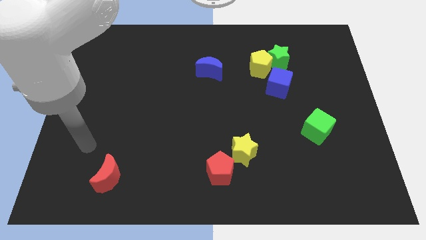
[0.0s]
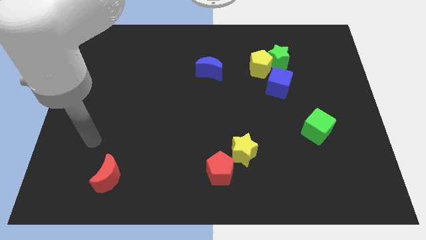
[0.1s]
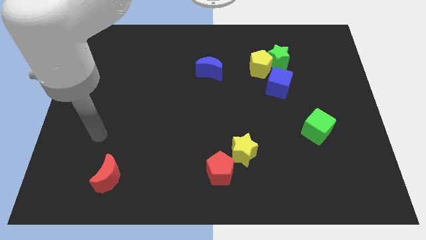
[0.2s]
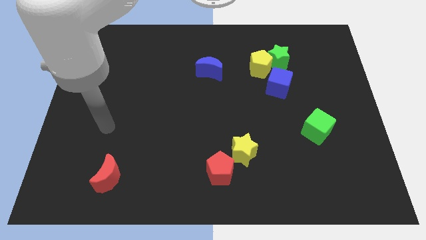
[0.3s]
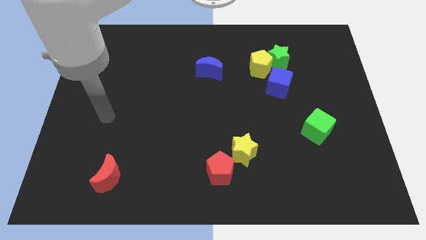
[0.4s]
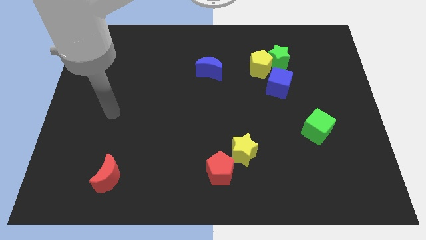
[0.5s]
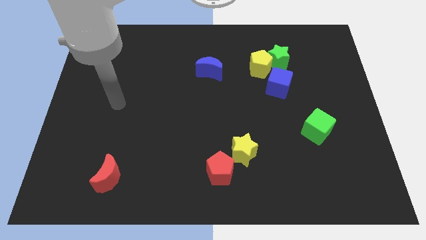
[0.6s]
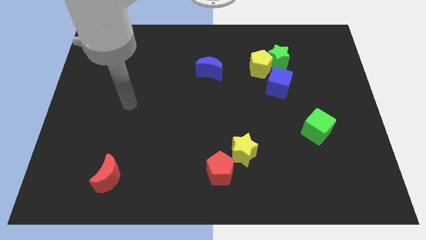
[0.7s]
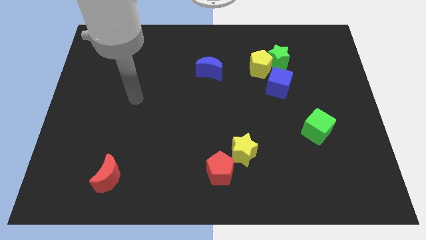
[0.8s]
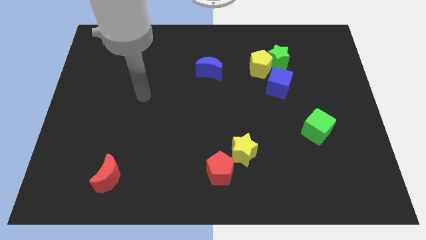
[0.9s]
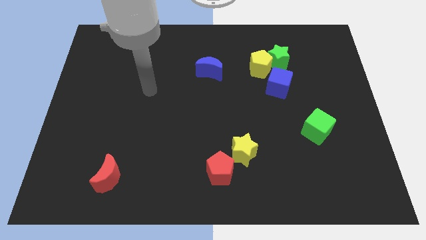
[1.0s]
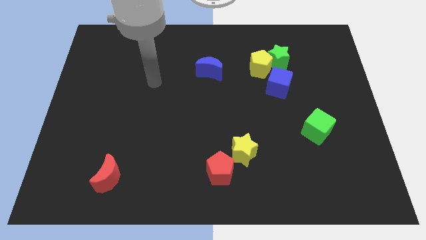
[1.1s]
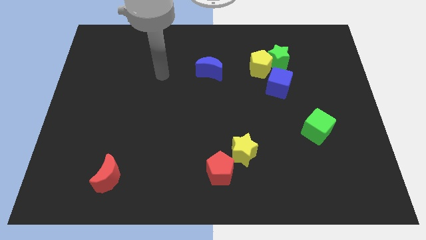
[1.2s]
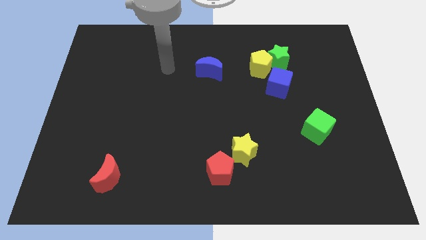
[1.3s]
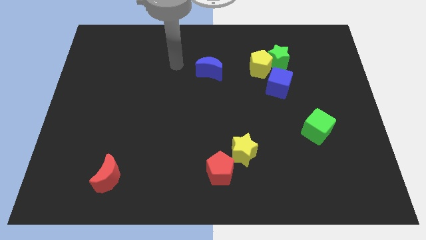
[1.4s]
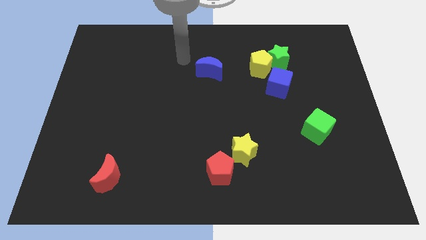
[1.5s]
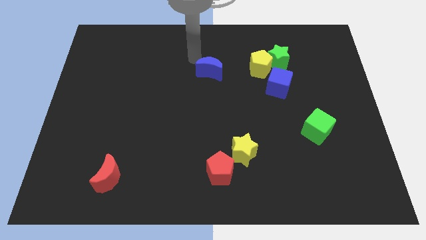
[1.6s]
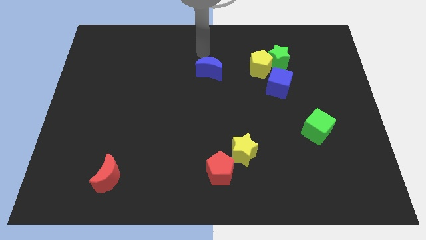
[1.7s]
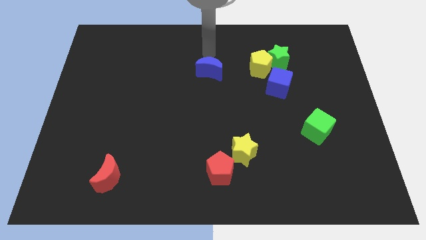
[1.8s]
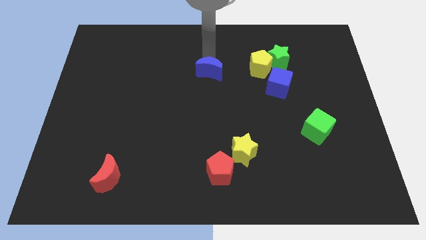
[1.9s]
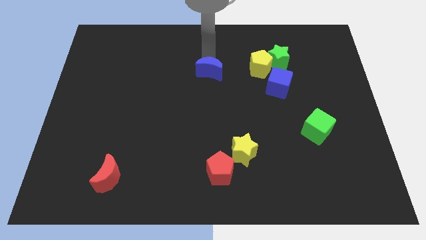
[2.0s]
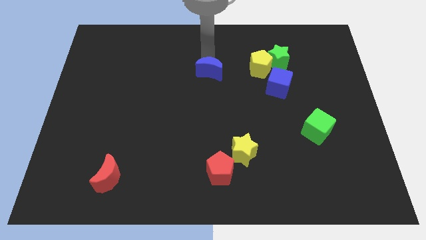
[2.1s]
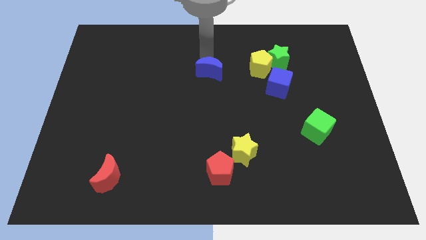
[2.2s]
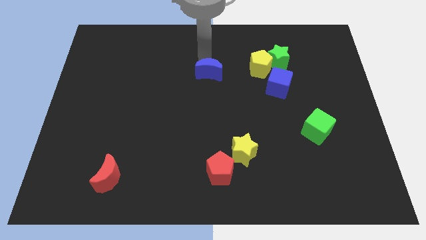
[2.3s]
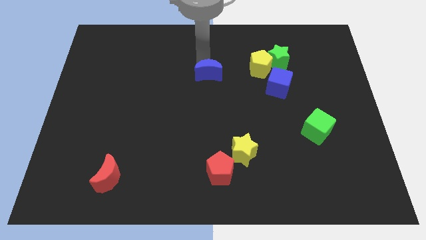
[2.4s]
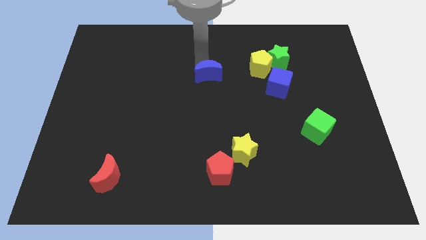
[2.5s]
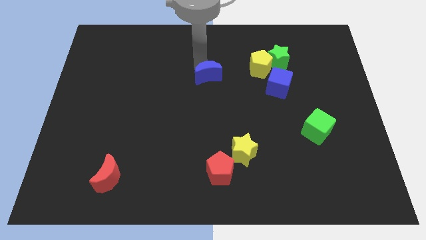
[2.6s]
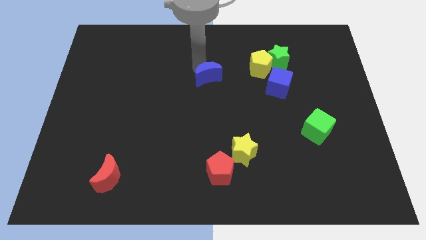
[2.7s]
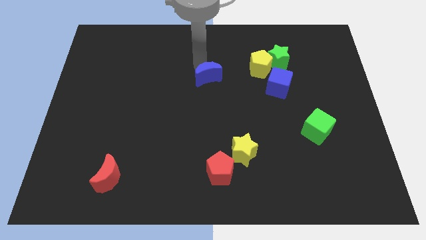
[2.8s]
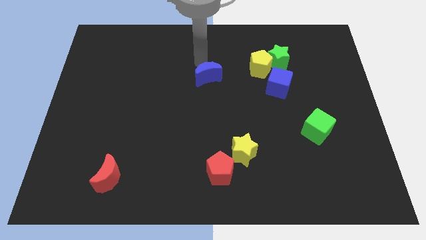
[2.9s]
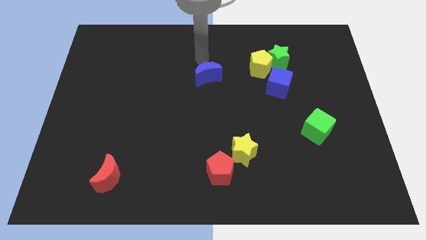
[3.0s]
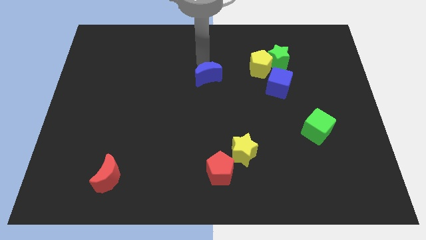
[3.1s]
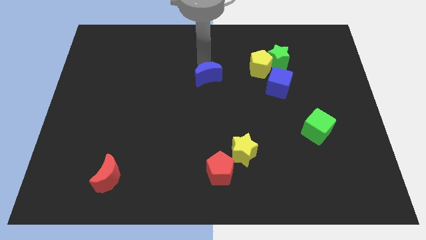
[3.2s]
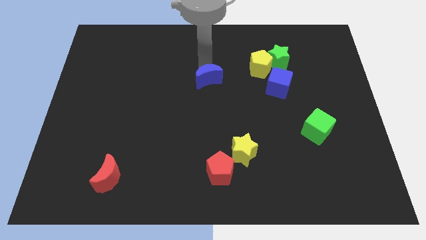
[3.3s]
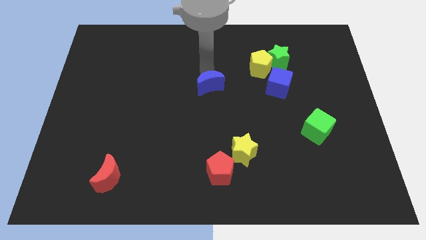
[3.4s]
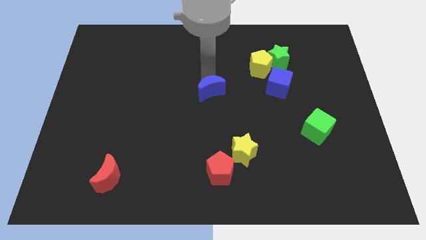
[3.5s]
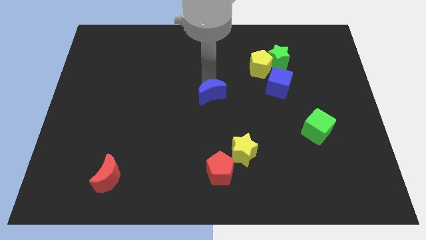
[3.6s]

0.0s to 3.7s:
slide the blue moon downwards slightly

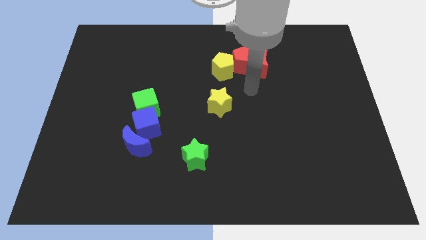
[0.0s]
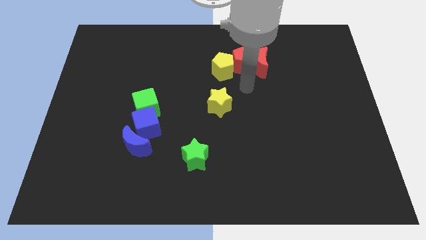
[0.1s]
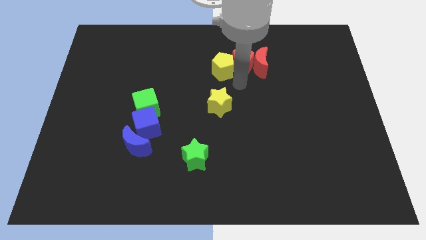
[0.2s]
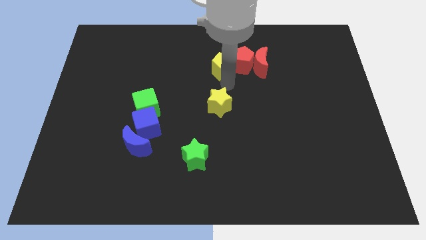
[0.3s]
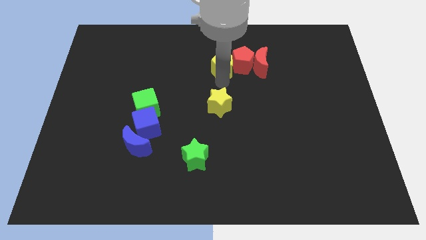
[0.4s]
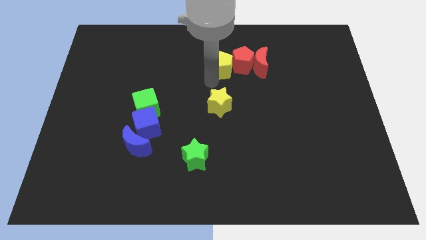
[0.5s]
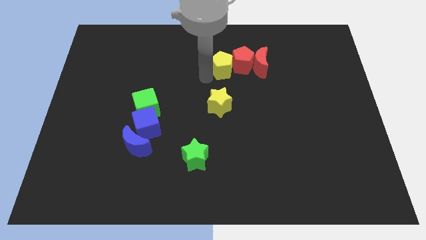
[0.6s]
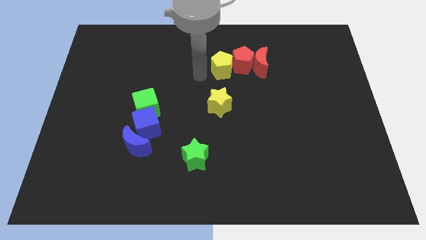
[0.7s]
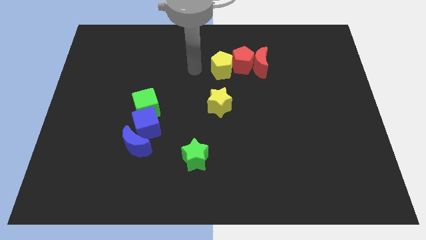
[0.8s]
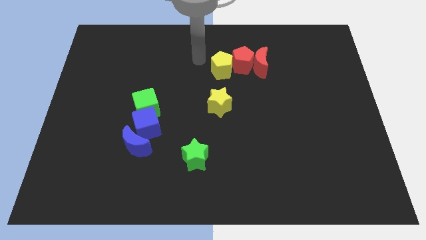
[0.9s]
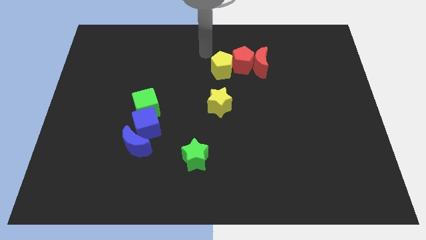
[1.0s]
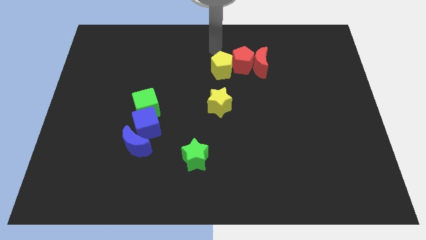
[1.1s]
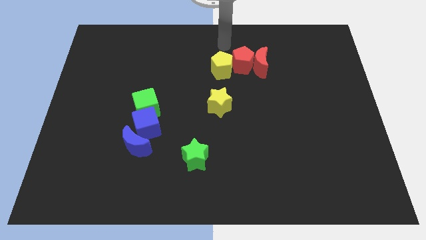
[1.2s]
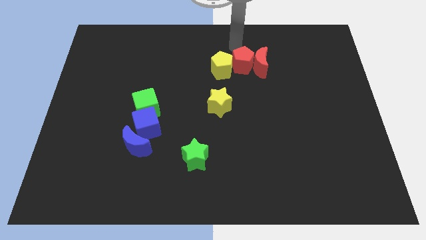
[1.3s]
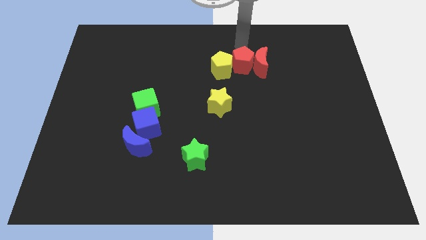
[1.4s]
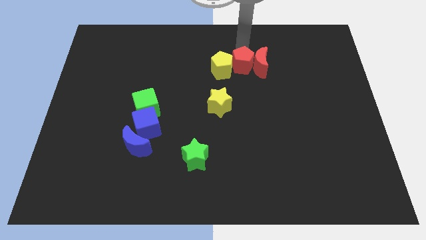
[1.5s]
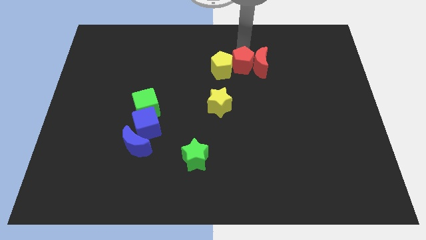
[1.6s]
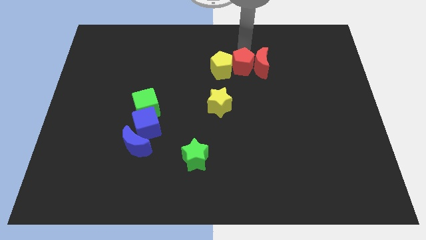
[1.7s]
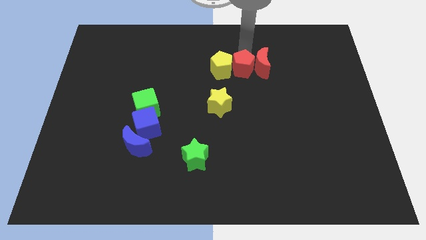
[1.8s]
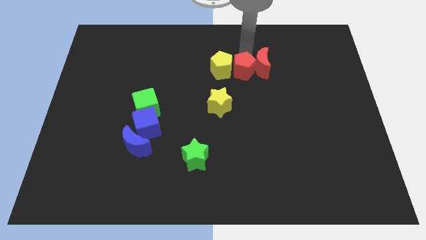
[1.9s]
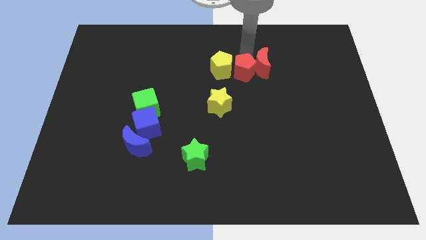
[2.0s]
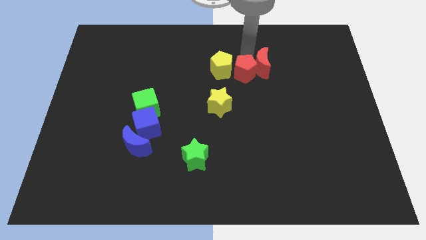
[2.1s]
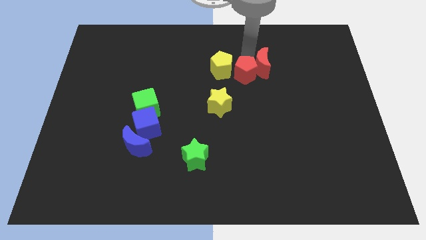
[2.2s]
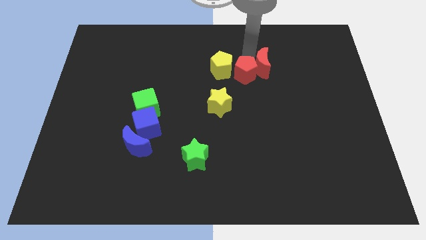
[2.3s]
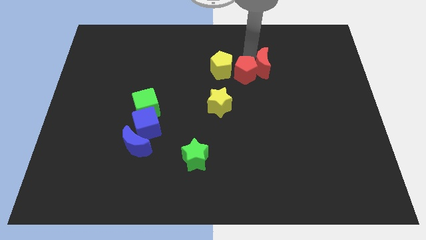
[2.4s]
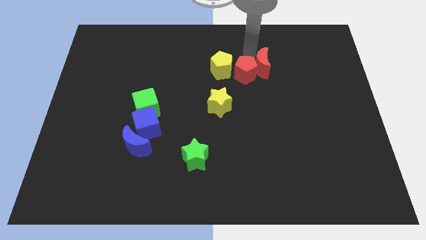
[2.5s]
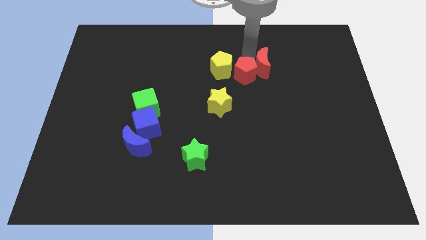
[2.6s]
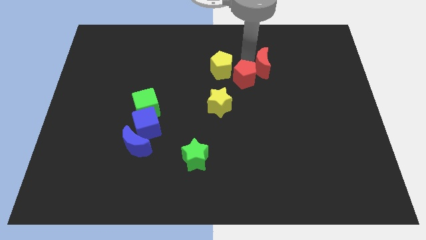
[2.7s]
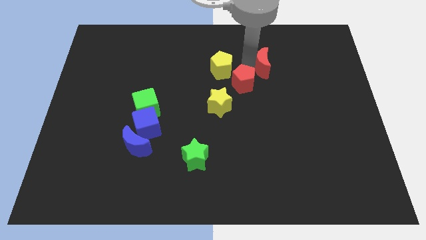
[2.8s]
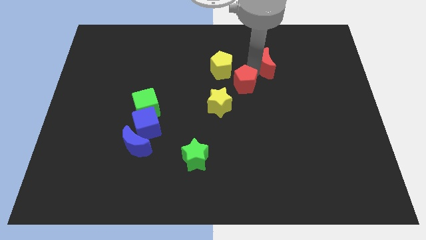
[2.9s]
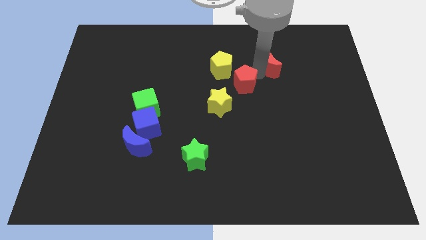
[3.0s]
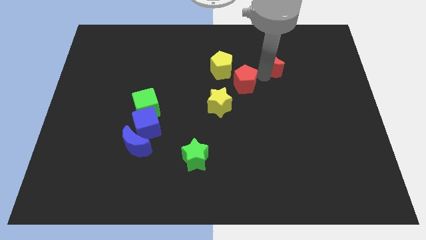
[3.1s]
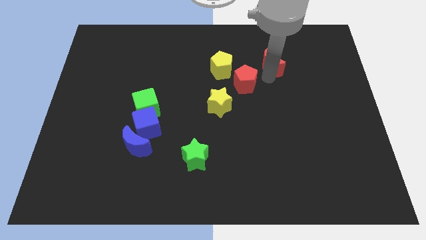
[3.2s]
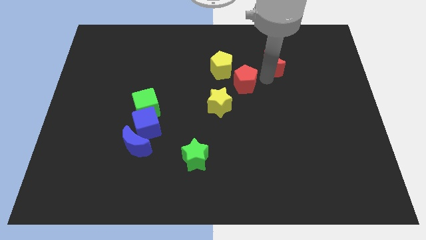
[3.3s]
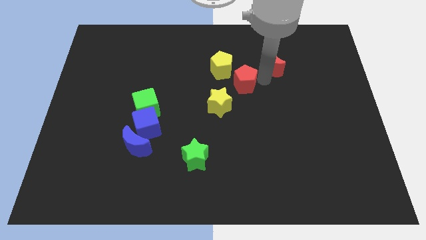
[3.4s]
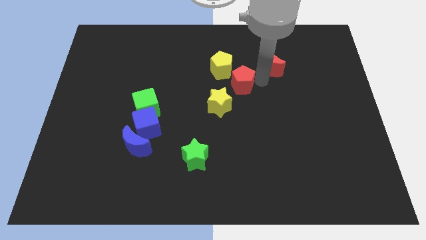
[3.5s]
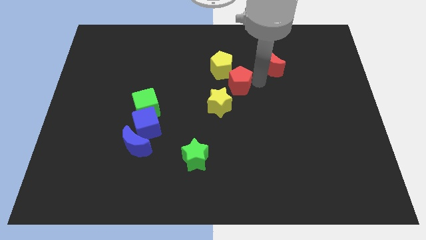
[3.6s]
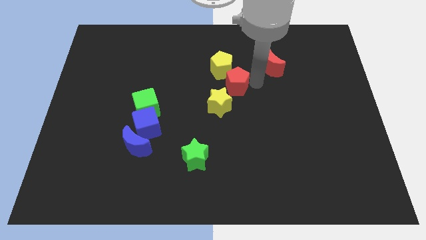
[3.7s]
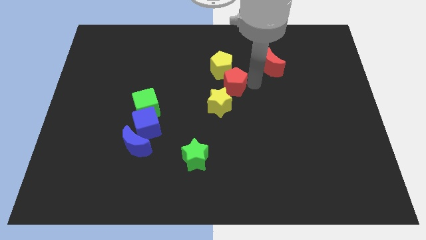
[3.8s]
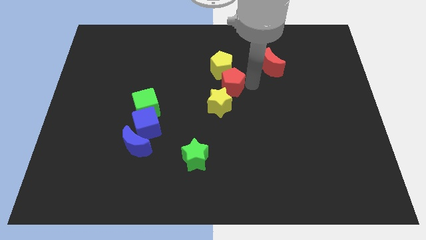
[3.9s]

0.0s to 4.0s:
slightly slide the red pentagon downwards and to the left

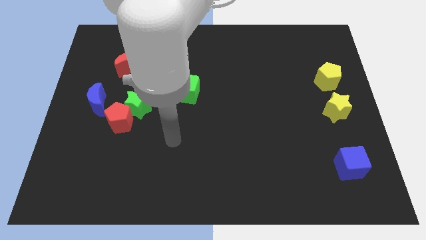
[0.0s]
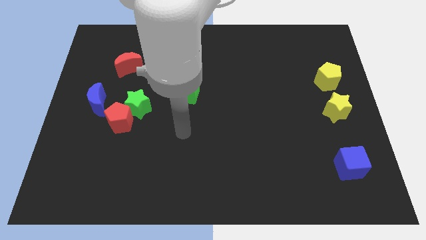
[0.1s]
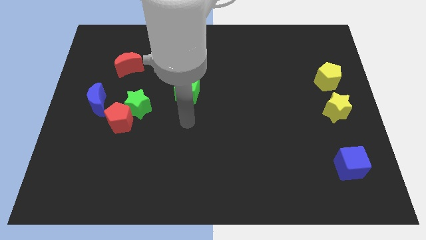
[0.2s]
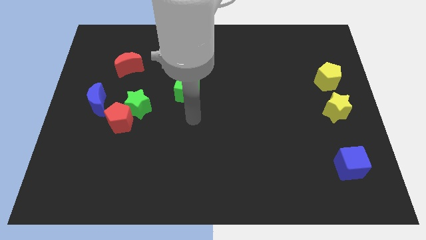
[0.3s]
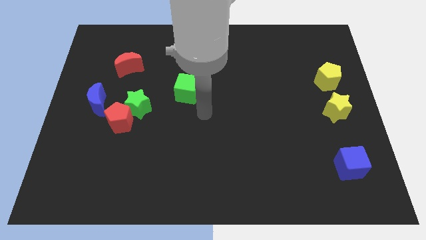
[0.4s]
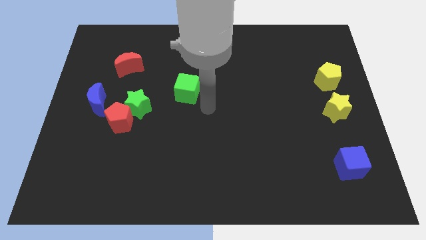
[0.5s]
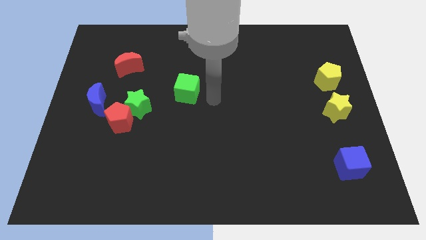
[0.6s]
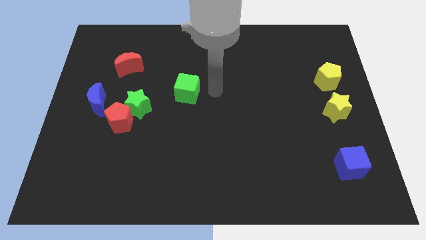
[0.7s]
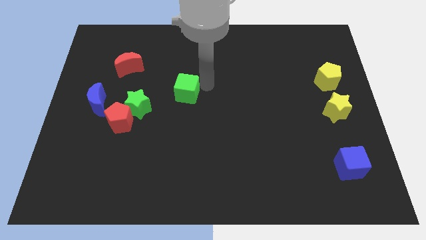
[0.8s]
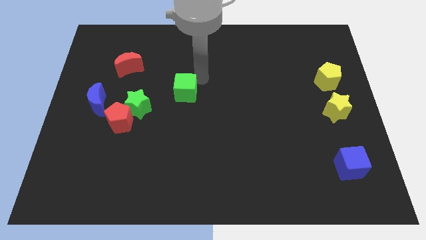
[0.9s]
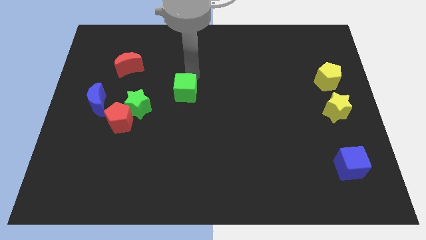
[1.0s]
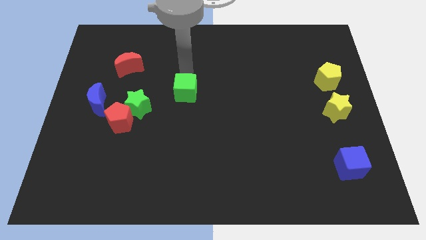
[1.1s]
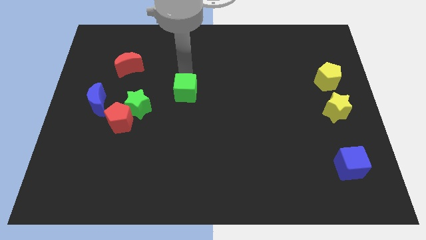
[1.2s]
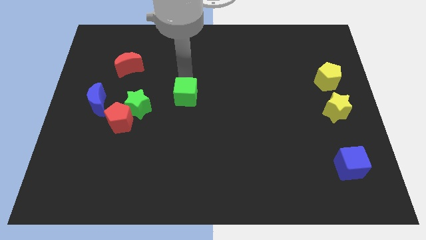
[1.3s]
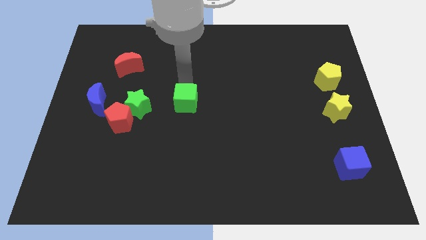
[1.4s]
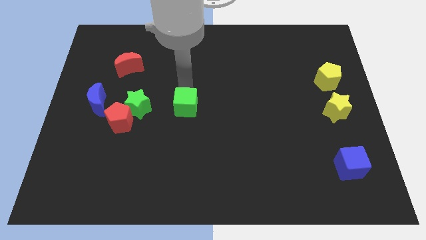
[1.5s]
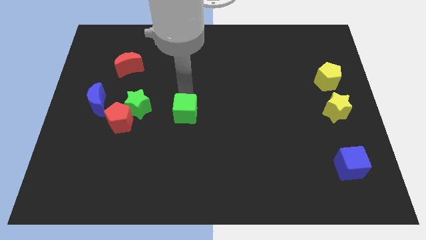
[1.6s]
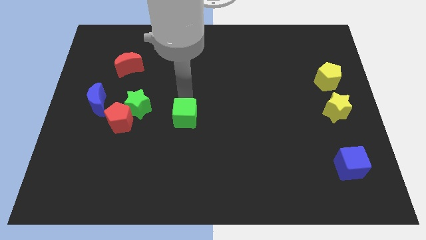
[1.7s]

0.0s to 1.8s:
move the green cube downwards slightly
